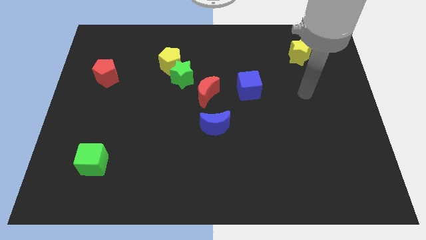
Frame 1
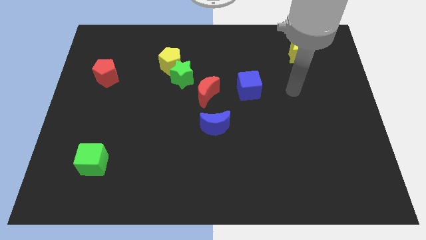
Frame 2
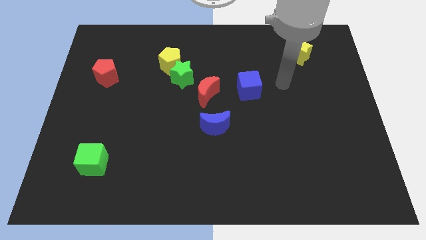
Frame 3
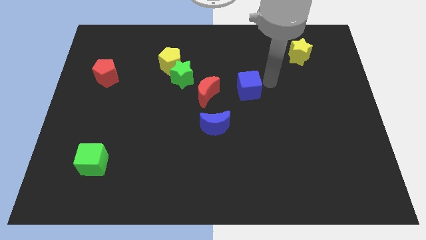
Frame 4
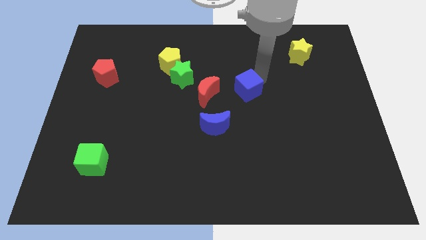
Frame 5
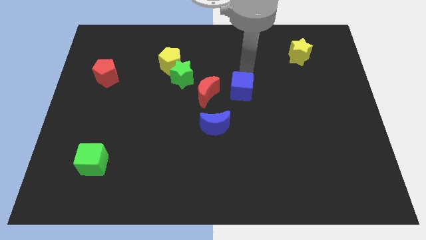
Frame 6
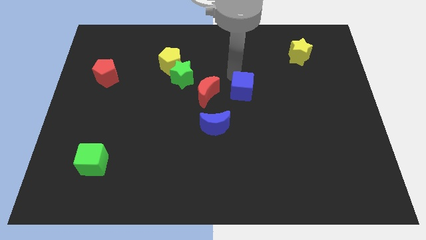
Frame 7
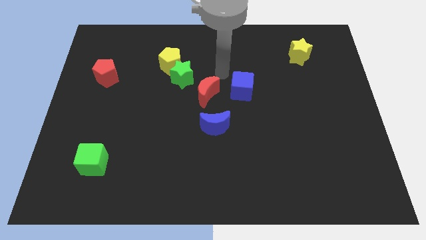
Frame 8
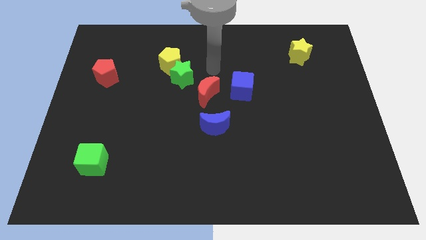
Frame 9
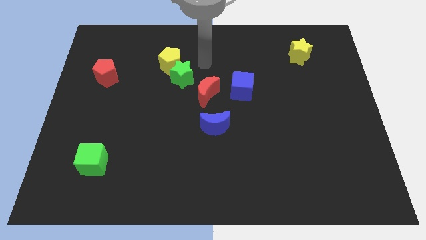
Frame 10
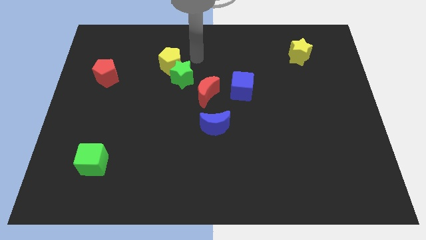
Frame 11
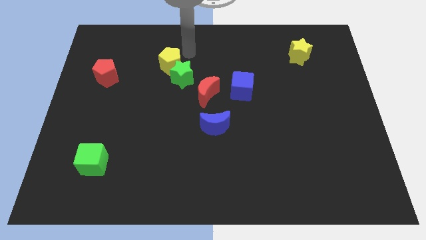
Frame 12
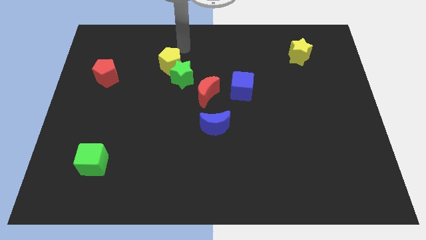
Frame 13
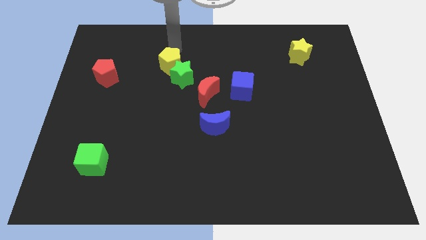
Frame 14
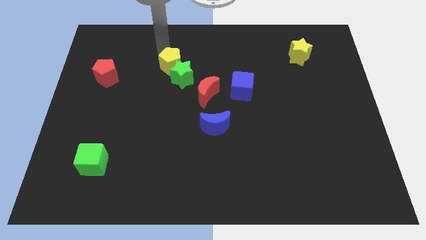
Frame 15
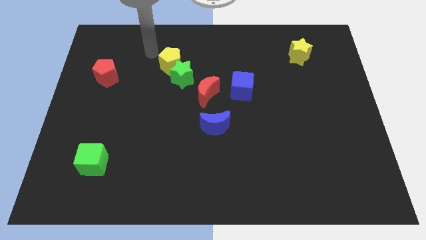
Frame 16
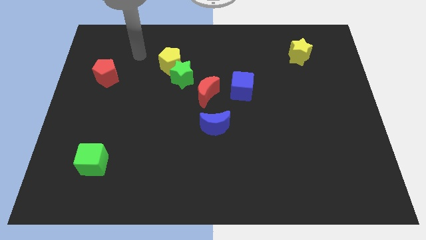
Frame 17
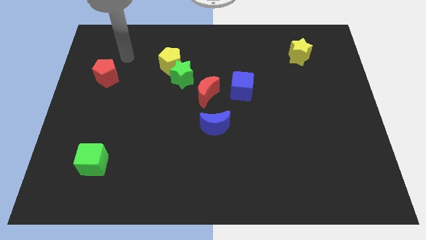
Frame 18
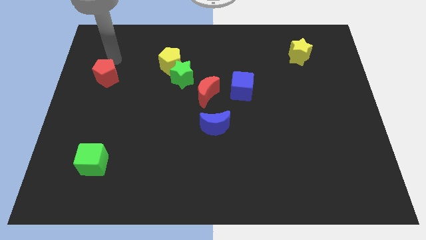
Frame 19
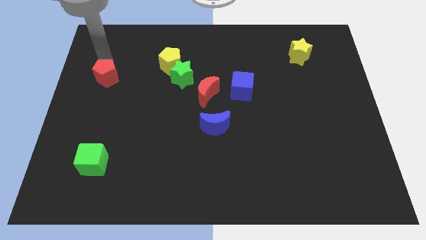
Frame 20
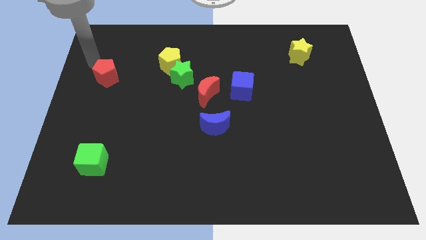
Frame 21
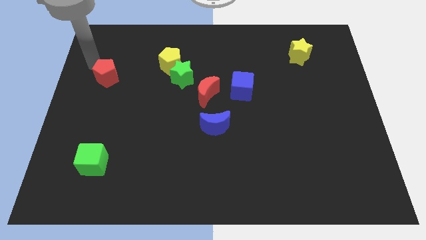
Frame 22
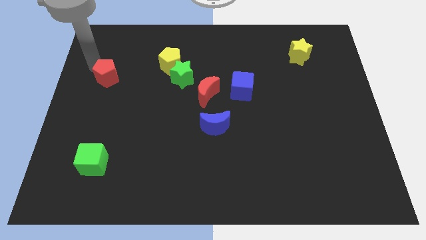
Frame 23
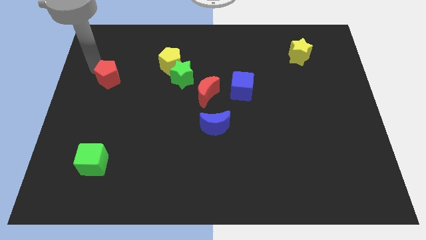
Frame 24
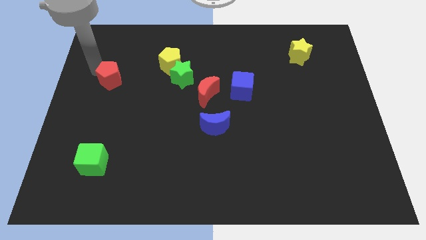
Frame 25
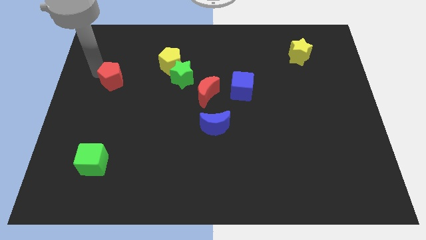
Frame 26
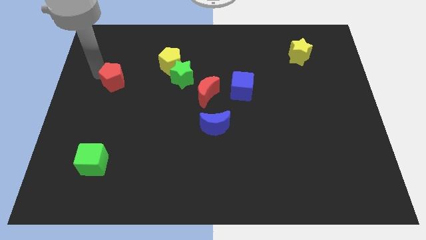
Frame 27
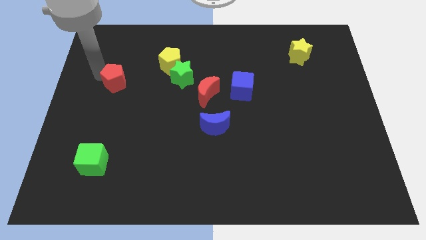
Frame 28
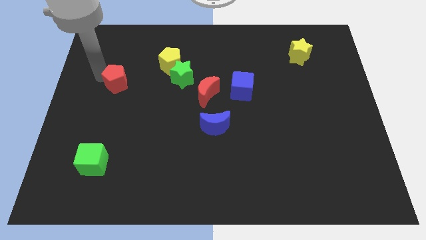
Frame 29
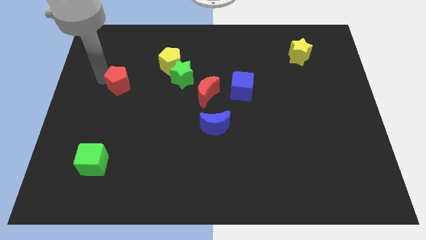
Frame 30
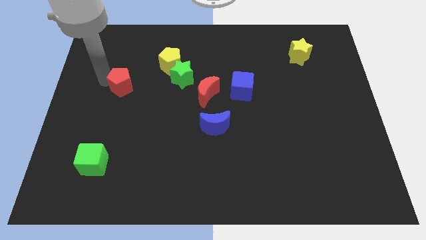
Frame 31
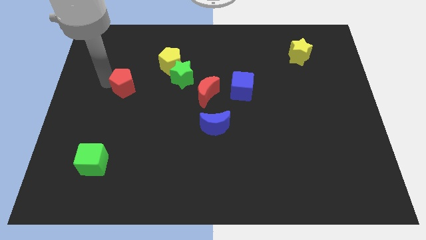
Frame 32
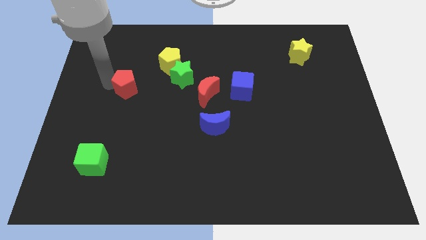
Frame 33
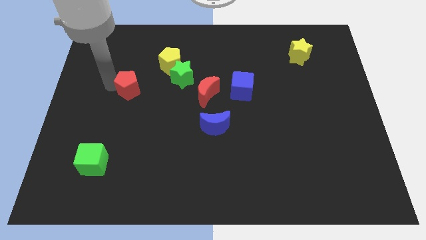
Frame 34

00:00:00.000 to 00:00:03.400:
move the red pentagon slightly diagonally down and to the right

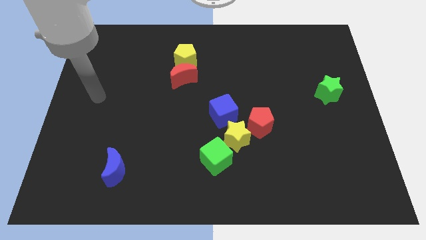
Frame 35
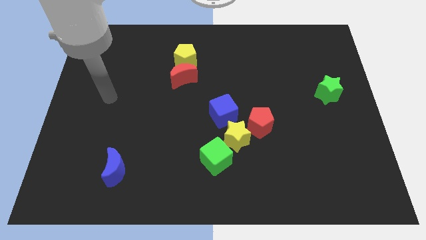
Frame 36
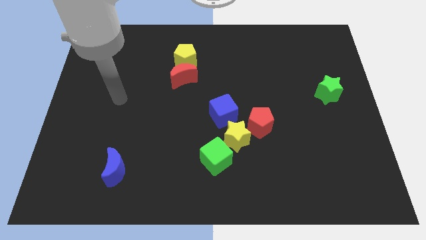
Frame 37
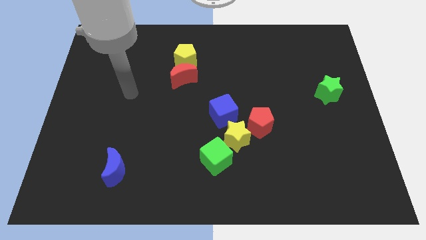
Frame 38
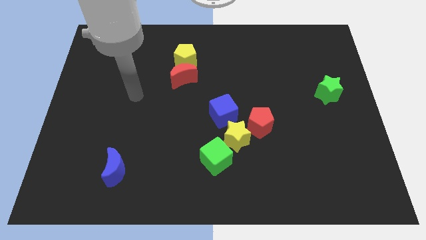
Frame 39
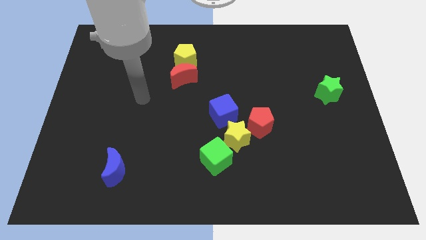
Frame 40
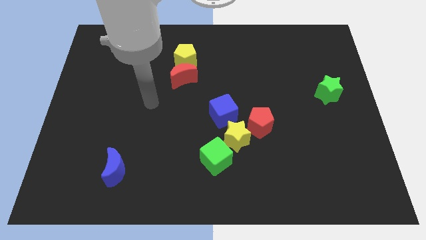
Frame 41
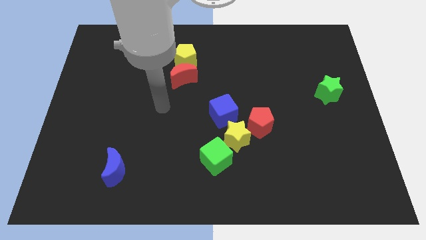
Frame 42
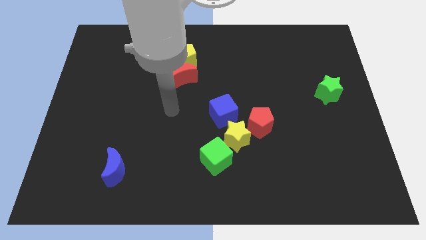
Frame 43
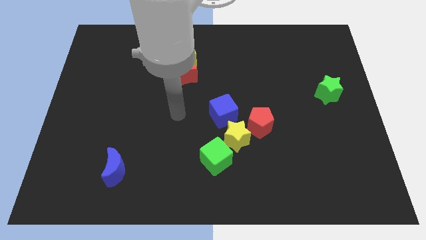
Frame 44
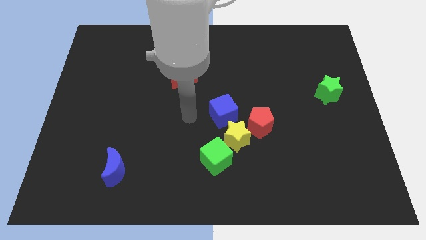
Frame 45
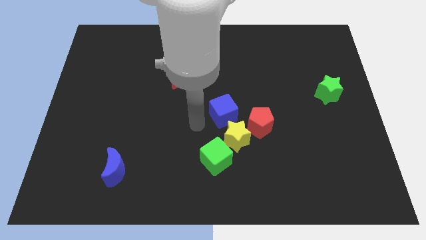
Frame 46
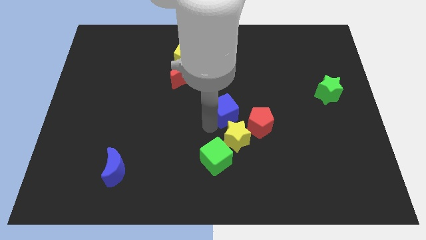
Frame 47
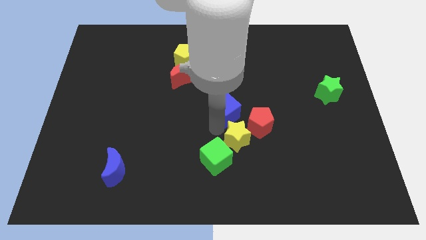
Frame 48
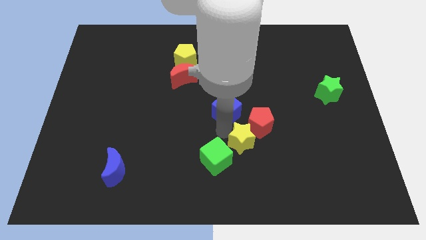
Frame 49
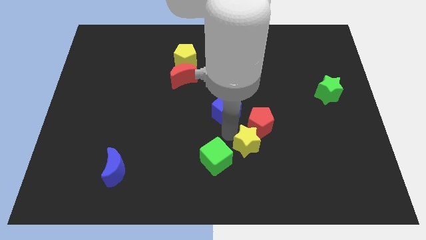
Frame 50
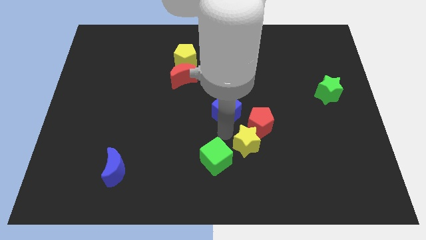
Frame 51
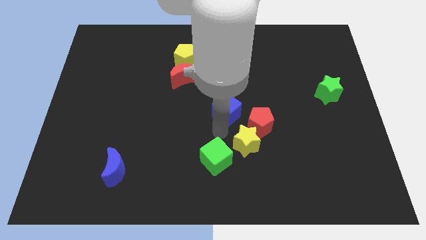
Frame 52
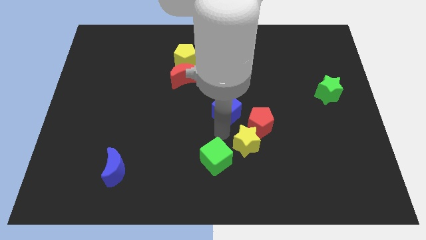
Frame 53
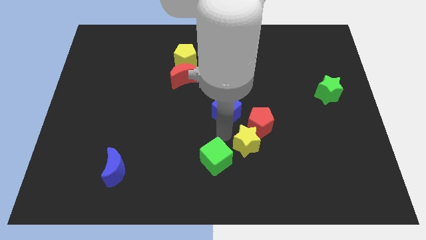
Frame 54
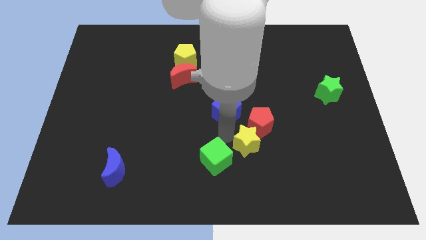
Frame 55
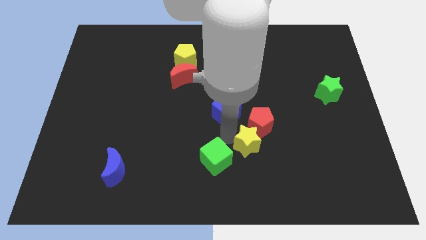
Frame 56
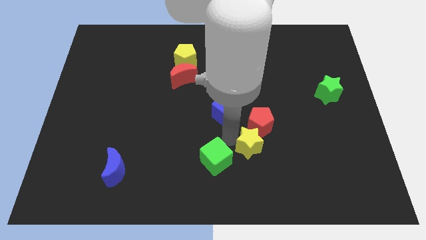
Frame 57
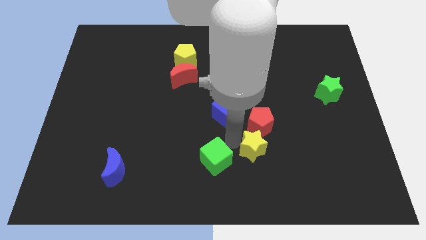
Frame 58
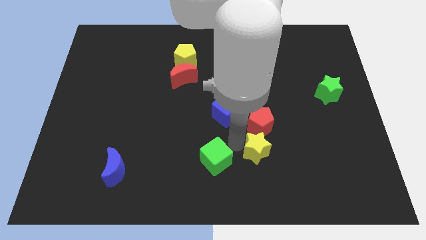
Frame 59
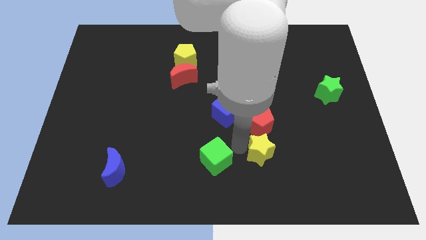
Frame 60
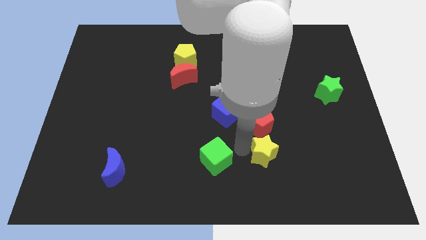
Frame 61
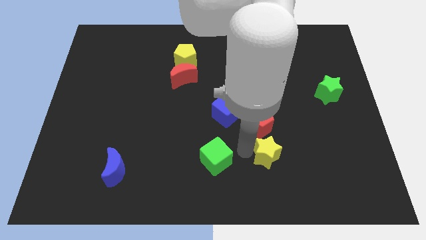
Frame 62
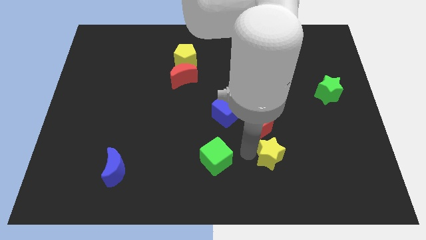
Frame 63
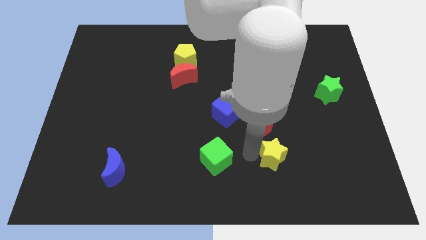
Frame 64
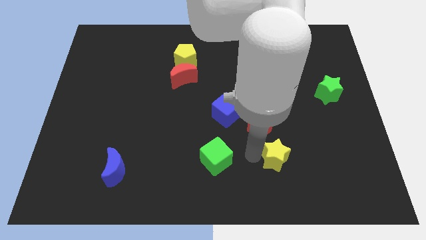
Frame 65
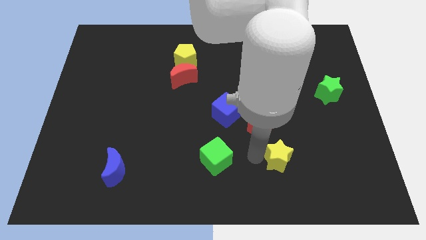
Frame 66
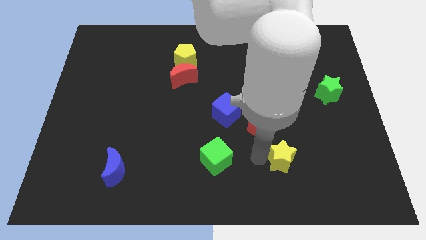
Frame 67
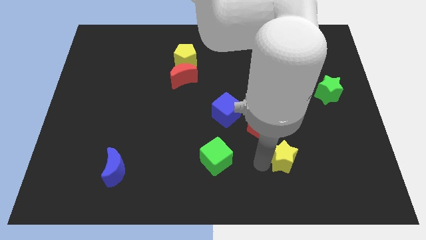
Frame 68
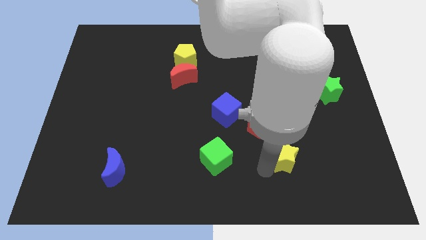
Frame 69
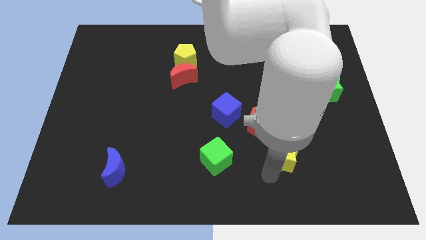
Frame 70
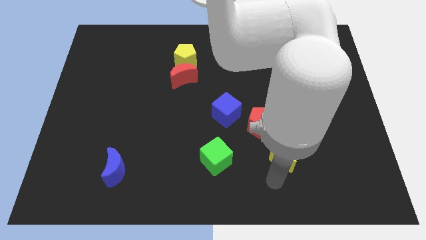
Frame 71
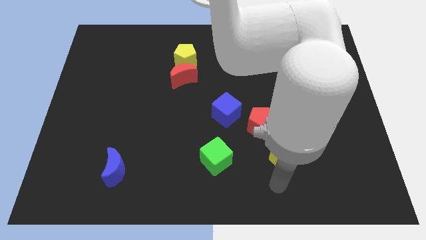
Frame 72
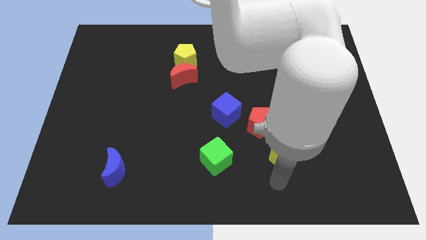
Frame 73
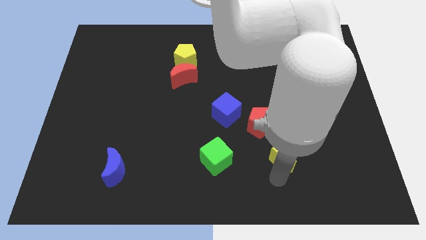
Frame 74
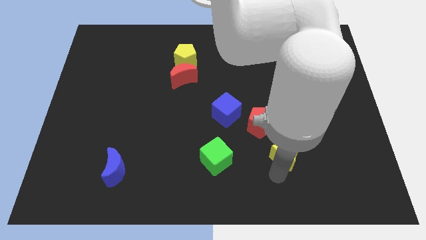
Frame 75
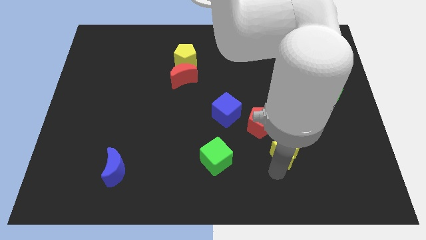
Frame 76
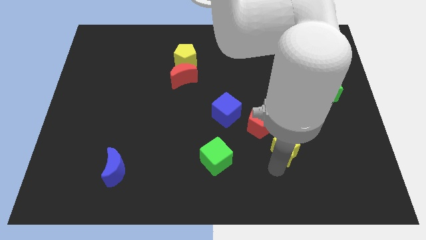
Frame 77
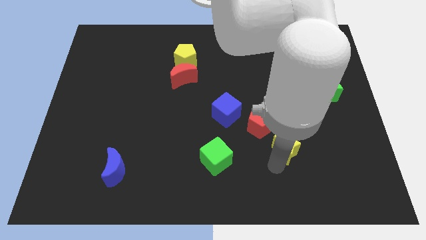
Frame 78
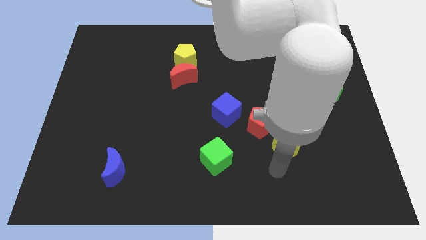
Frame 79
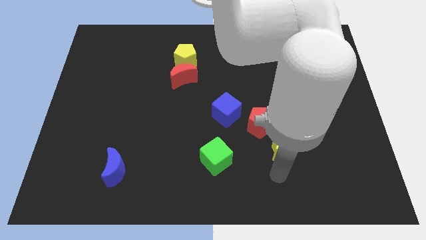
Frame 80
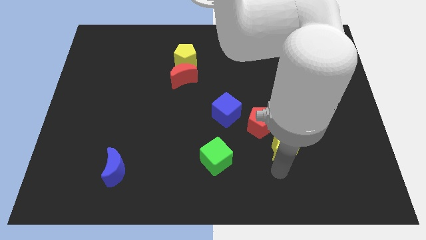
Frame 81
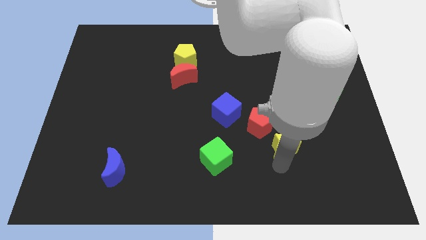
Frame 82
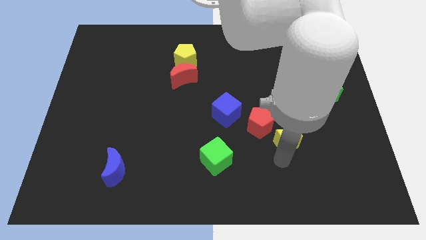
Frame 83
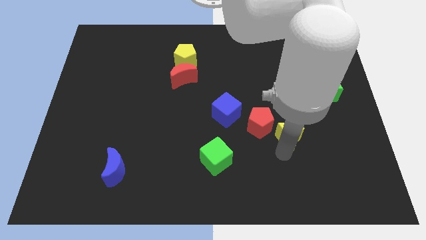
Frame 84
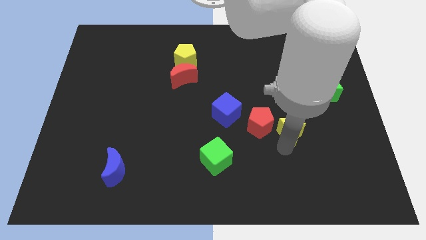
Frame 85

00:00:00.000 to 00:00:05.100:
push the yellow star a little upwards and then right
